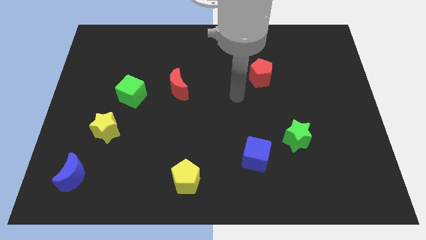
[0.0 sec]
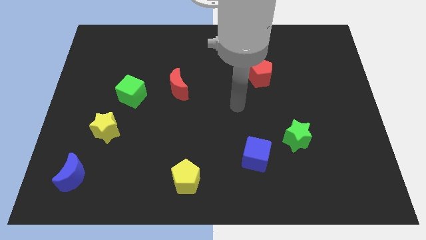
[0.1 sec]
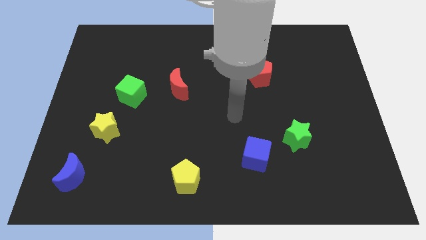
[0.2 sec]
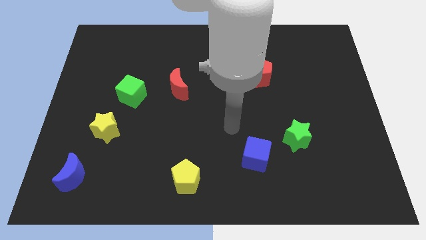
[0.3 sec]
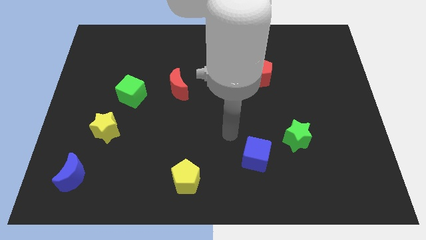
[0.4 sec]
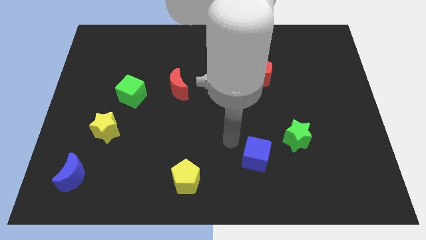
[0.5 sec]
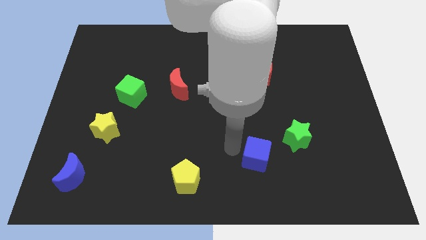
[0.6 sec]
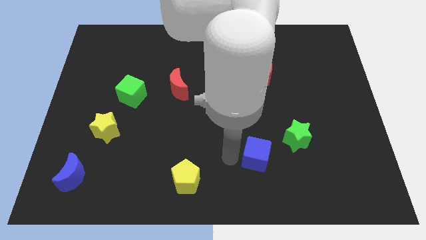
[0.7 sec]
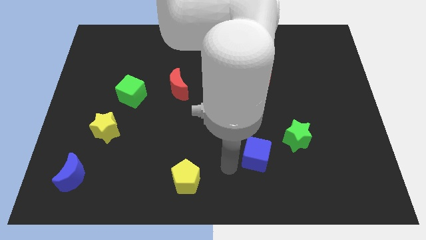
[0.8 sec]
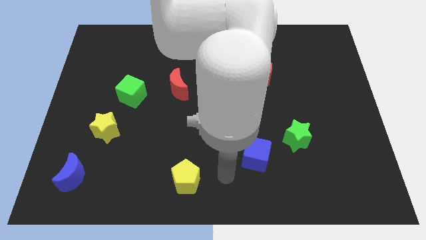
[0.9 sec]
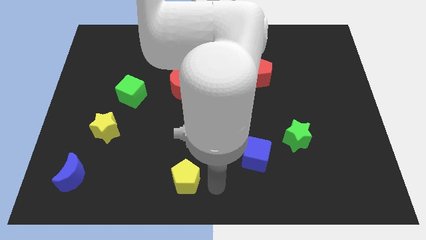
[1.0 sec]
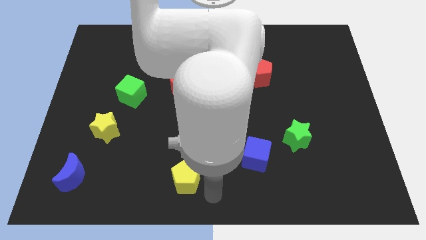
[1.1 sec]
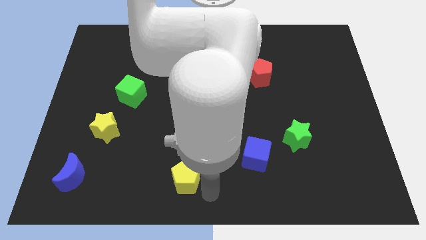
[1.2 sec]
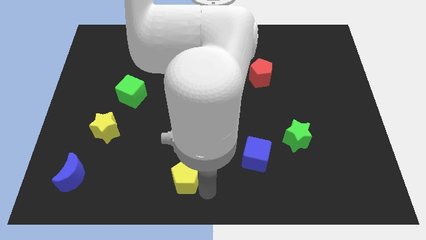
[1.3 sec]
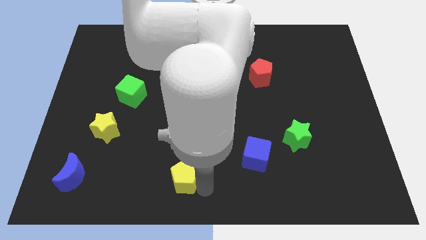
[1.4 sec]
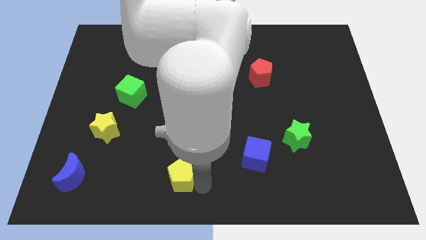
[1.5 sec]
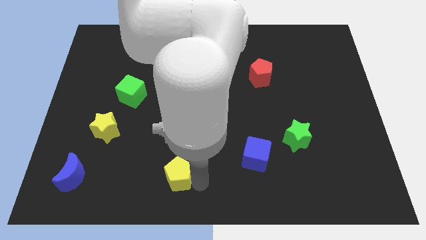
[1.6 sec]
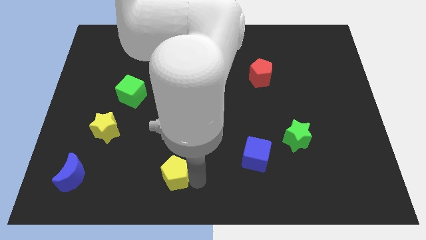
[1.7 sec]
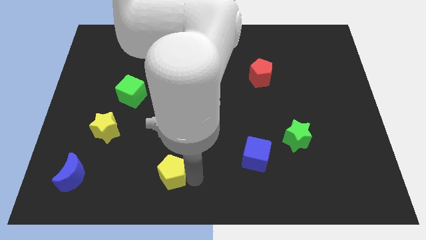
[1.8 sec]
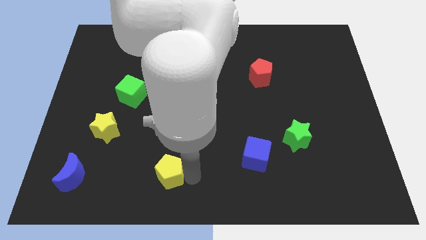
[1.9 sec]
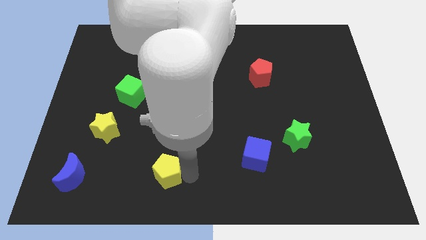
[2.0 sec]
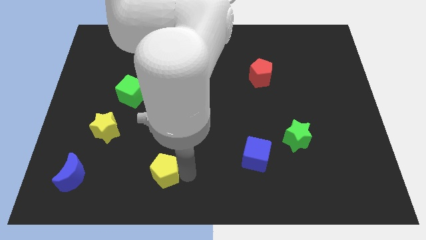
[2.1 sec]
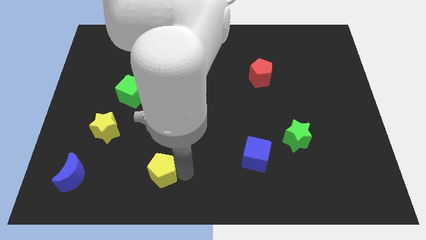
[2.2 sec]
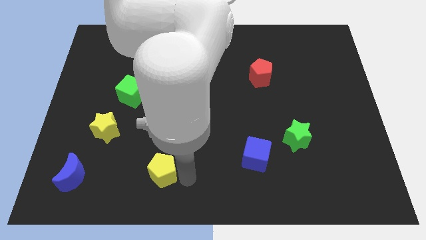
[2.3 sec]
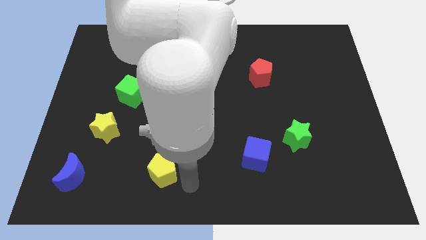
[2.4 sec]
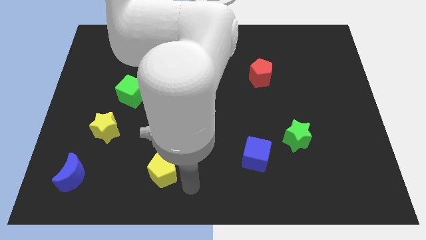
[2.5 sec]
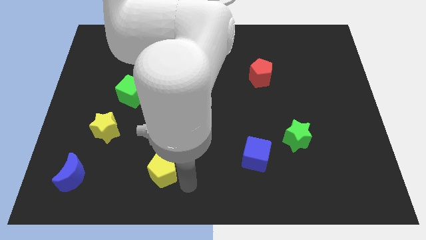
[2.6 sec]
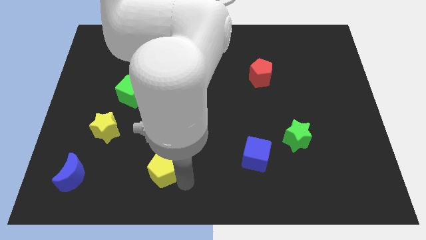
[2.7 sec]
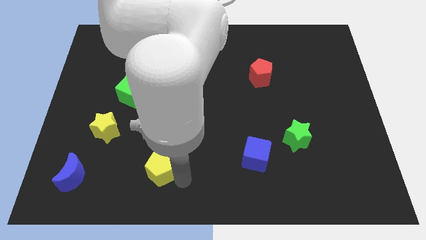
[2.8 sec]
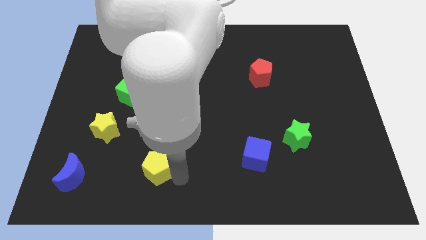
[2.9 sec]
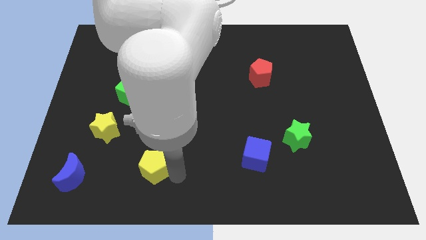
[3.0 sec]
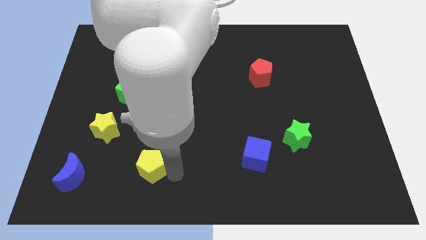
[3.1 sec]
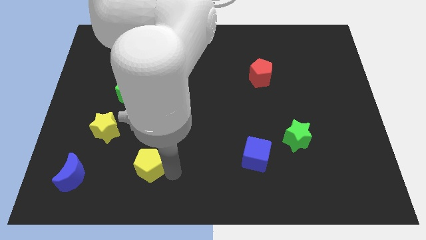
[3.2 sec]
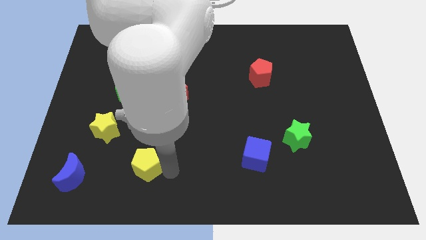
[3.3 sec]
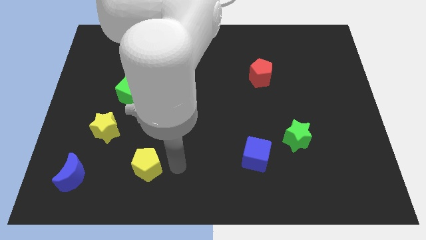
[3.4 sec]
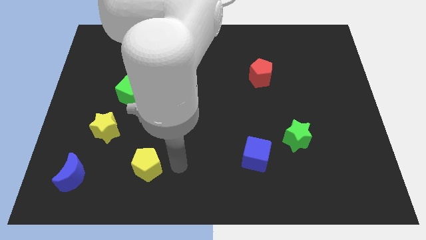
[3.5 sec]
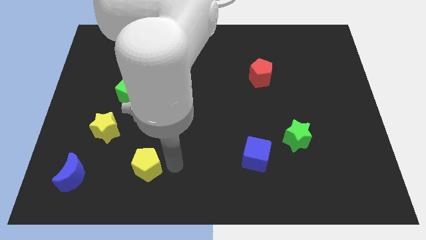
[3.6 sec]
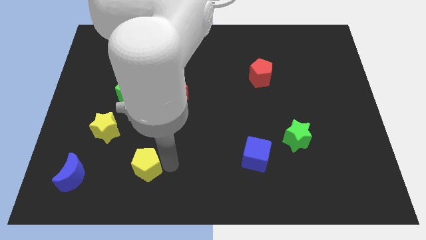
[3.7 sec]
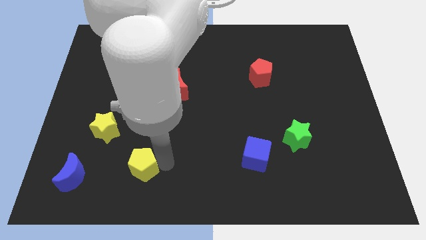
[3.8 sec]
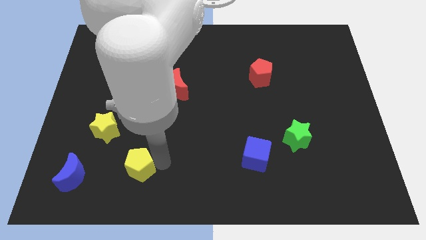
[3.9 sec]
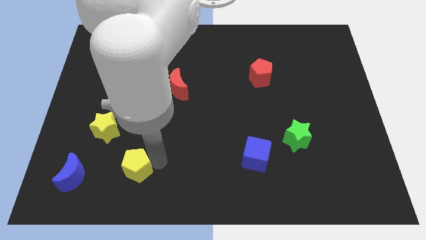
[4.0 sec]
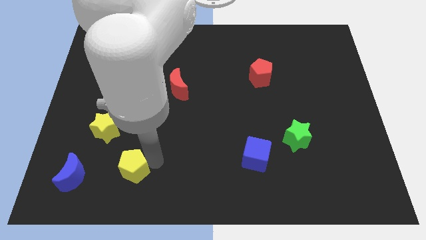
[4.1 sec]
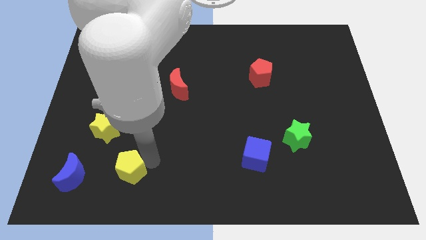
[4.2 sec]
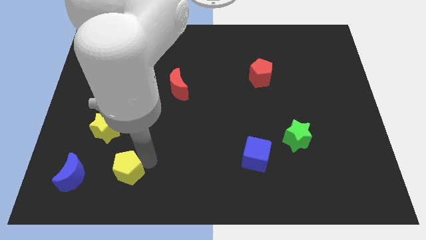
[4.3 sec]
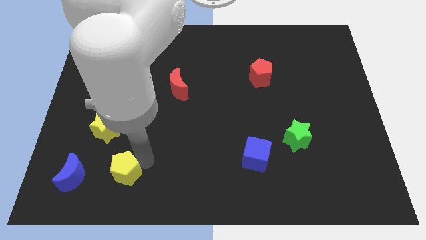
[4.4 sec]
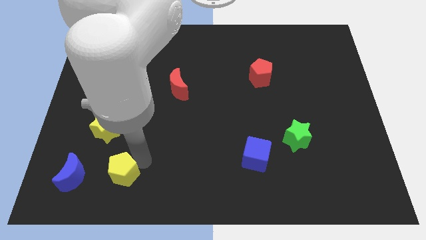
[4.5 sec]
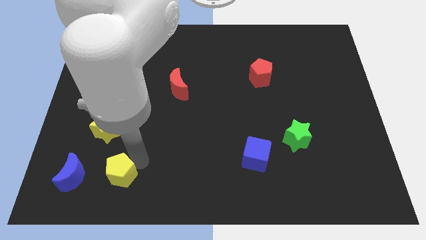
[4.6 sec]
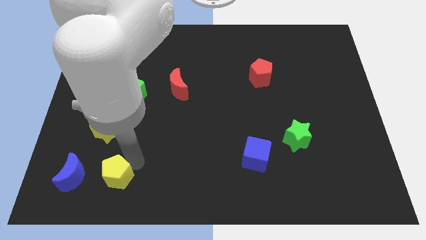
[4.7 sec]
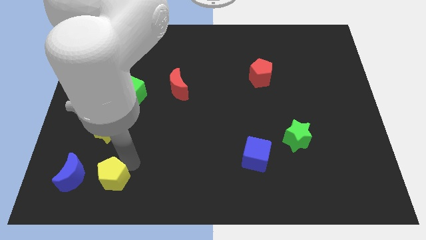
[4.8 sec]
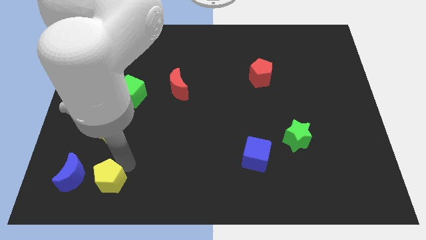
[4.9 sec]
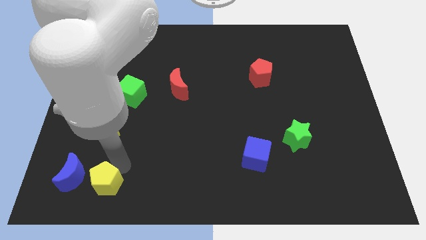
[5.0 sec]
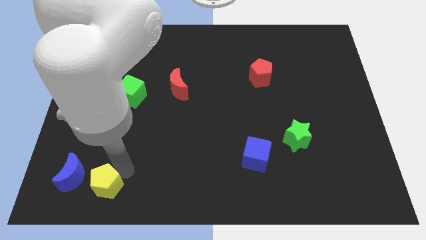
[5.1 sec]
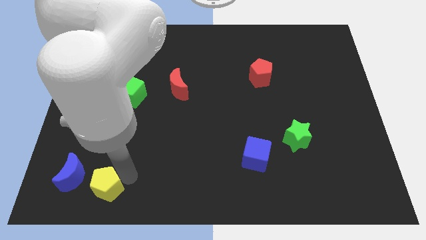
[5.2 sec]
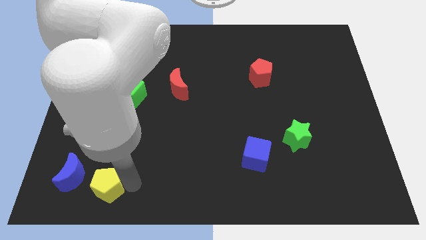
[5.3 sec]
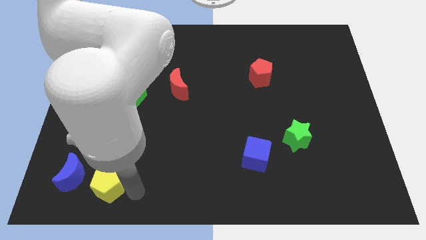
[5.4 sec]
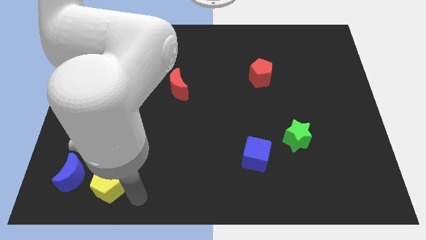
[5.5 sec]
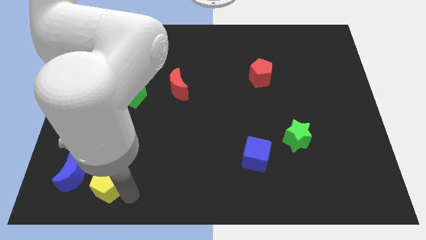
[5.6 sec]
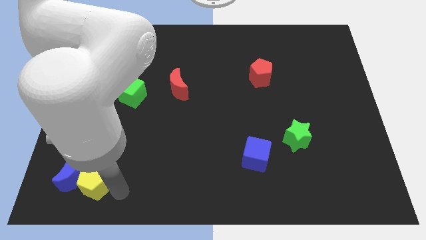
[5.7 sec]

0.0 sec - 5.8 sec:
move the yellow pentagon close to the blue moon

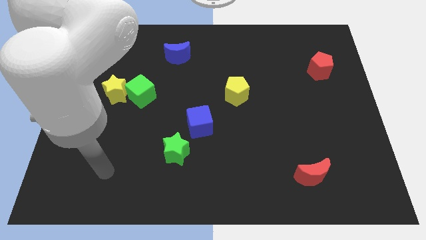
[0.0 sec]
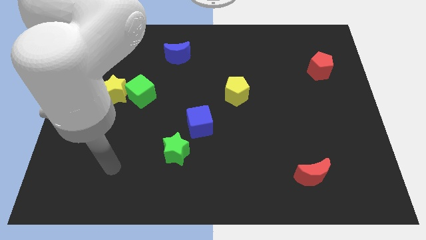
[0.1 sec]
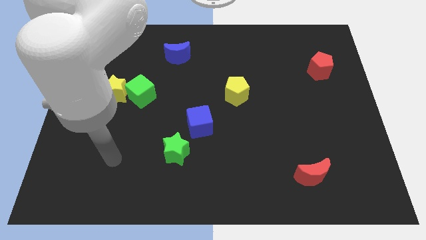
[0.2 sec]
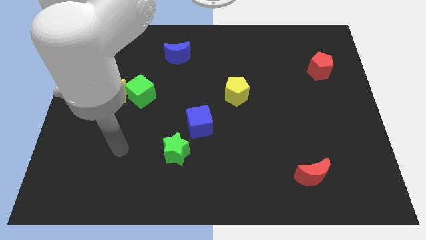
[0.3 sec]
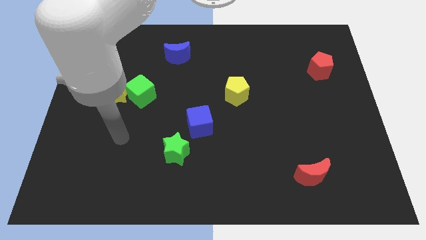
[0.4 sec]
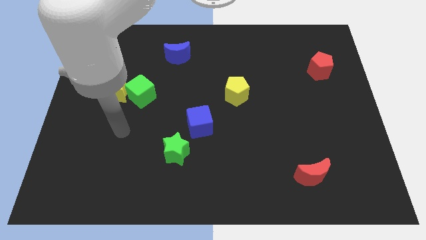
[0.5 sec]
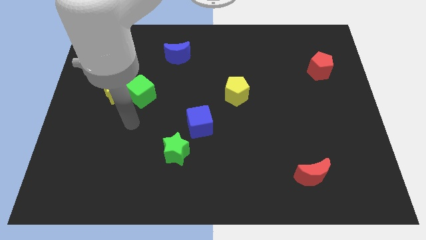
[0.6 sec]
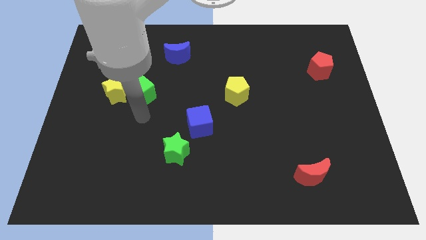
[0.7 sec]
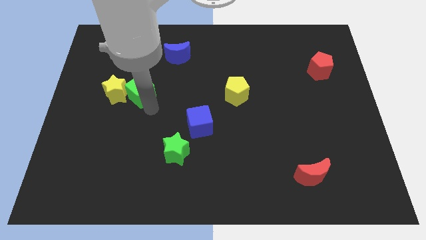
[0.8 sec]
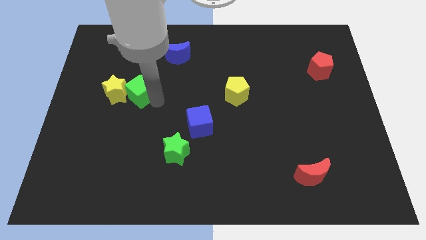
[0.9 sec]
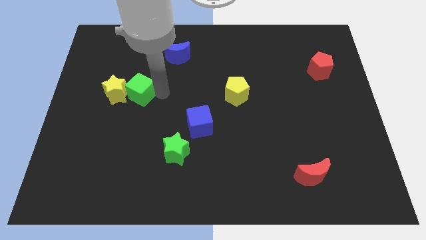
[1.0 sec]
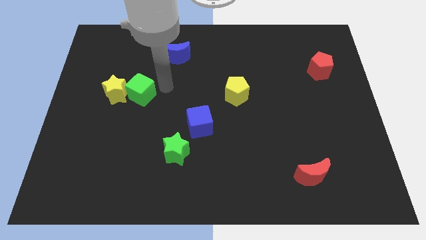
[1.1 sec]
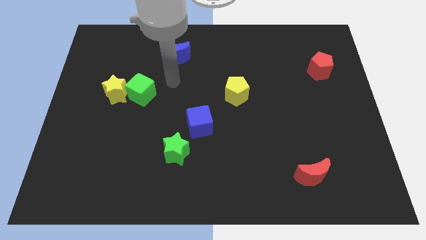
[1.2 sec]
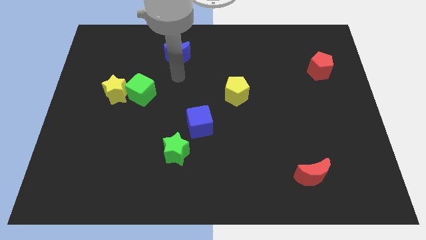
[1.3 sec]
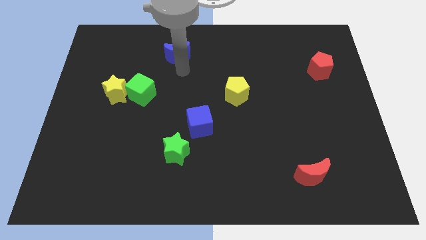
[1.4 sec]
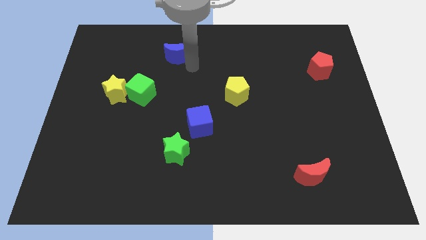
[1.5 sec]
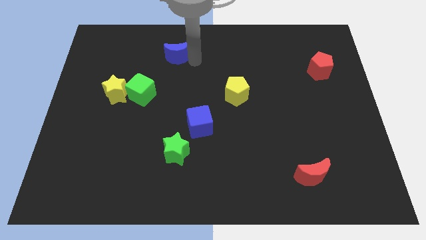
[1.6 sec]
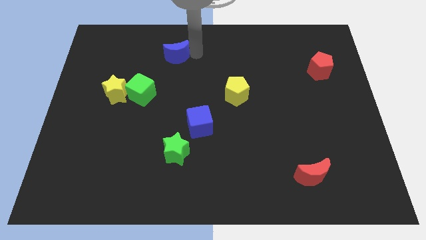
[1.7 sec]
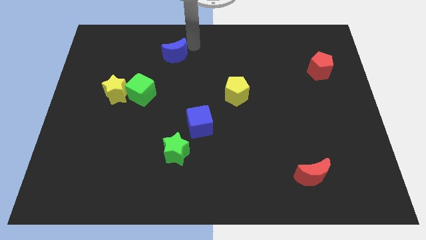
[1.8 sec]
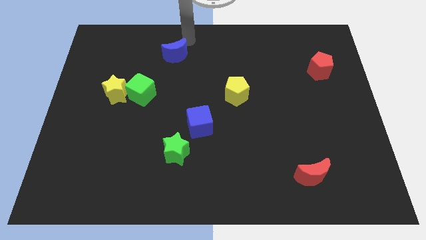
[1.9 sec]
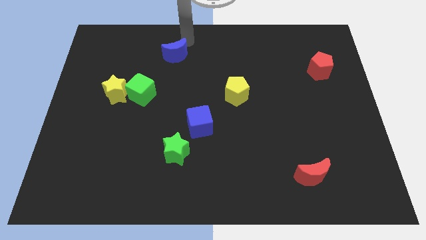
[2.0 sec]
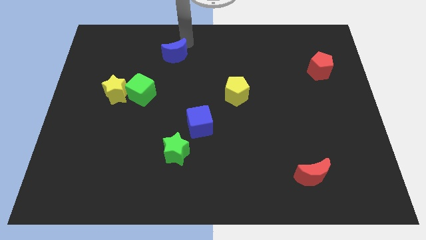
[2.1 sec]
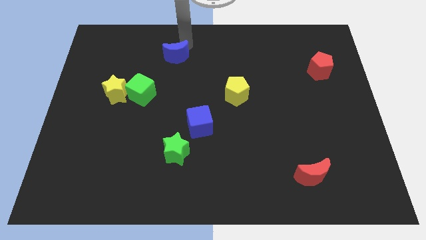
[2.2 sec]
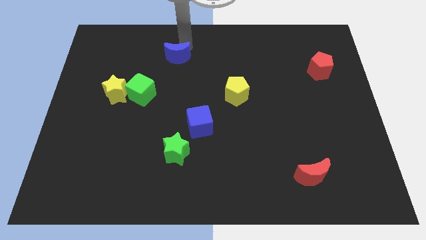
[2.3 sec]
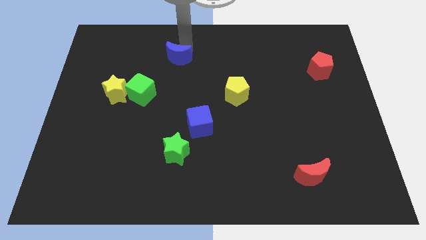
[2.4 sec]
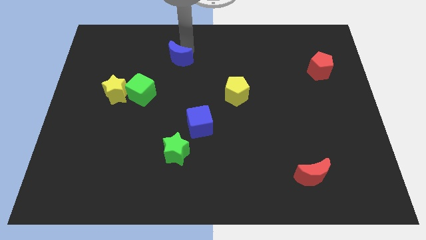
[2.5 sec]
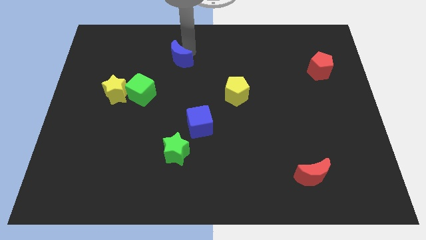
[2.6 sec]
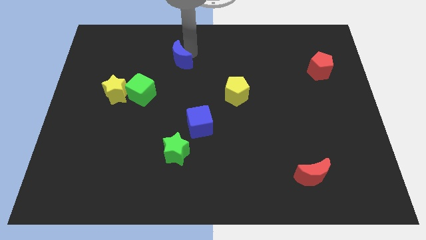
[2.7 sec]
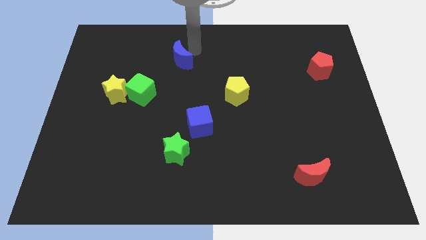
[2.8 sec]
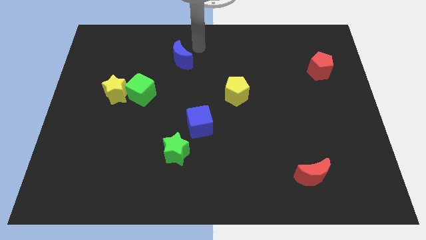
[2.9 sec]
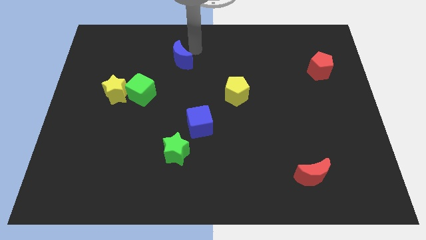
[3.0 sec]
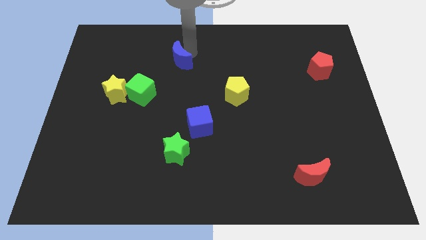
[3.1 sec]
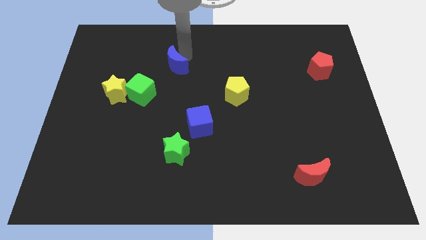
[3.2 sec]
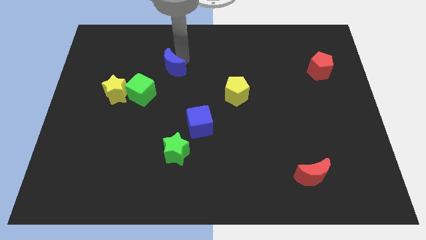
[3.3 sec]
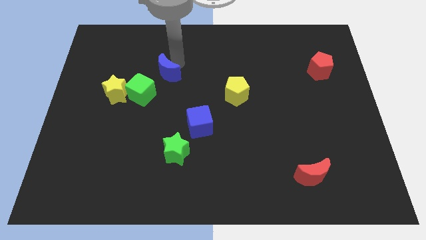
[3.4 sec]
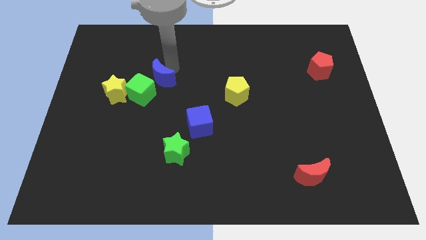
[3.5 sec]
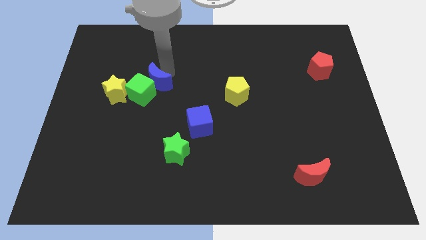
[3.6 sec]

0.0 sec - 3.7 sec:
push the blue moon next to the green cube
